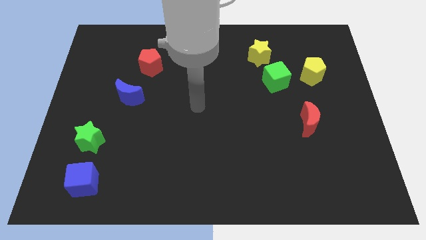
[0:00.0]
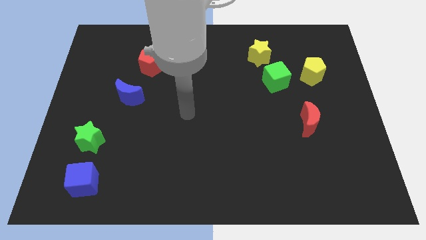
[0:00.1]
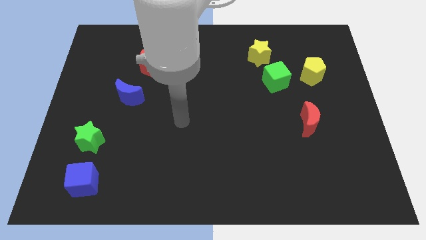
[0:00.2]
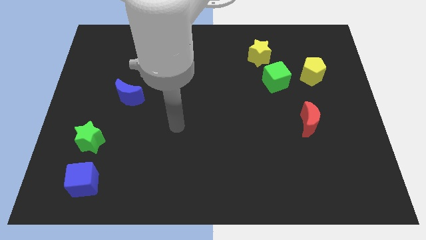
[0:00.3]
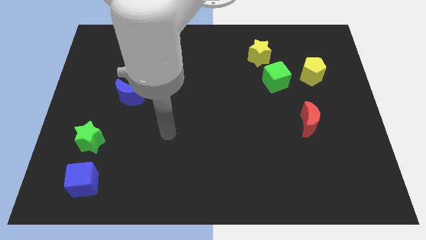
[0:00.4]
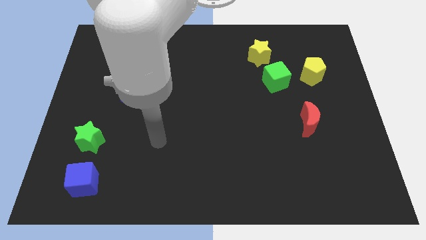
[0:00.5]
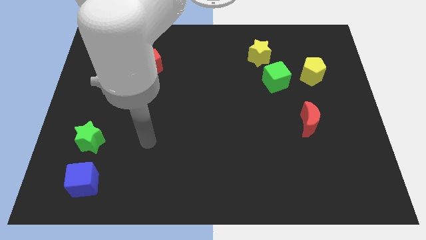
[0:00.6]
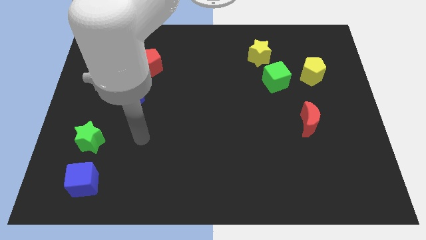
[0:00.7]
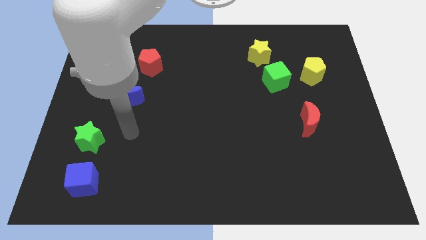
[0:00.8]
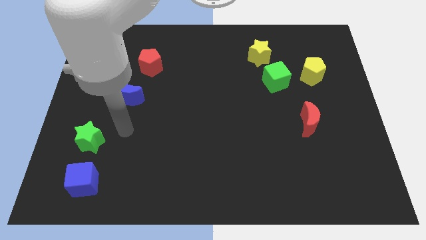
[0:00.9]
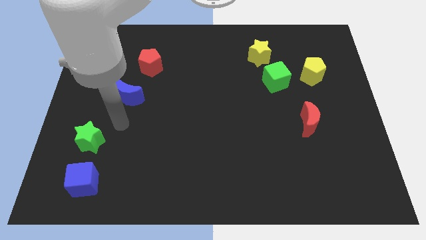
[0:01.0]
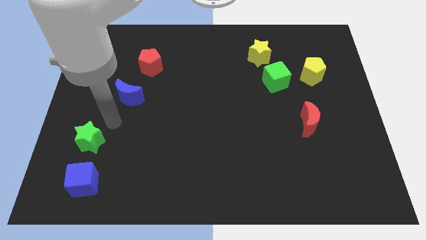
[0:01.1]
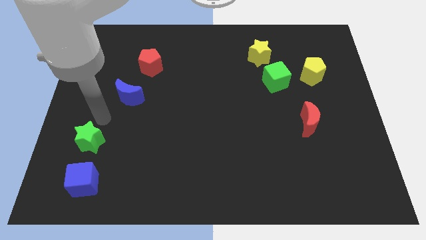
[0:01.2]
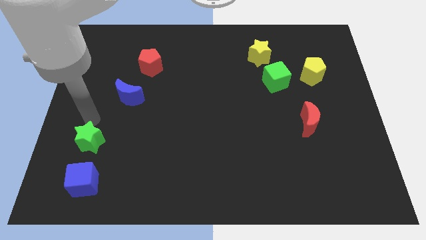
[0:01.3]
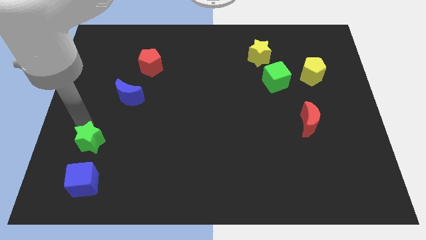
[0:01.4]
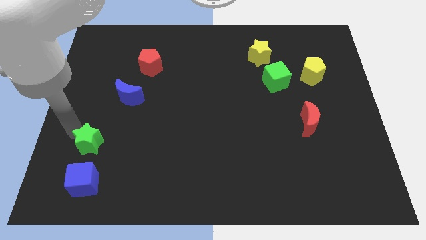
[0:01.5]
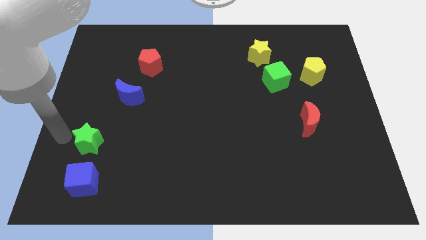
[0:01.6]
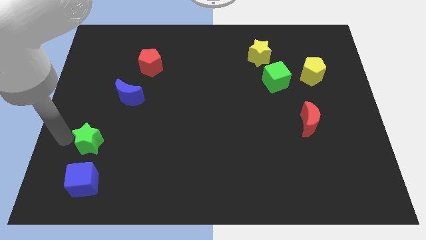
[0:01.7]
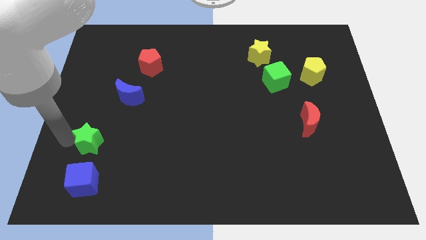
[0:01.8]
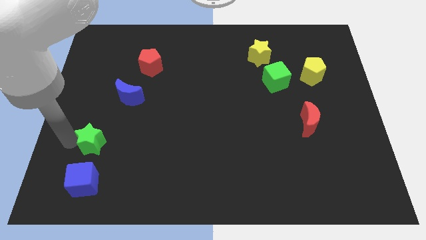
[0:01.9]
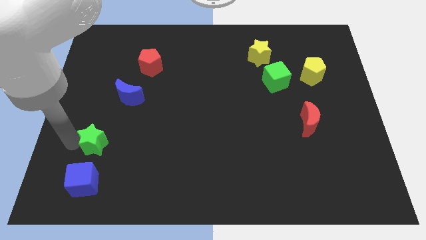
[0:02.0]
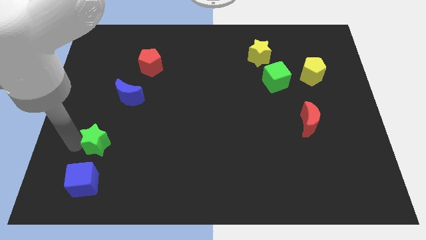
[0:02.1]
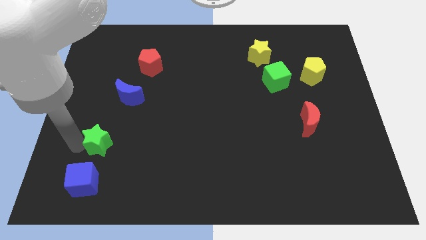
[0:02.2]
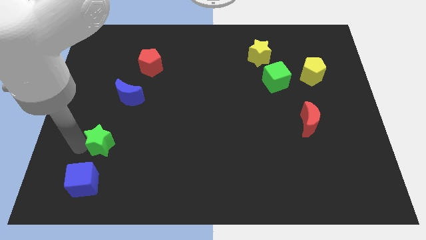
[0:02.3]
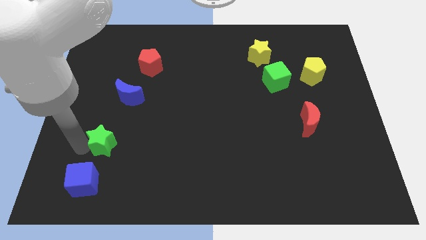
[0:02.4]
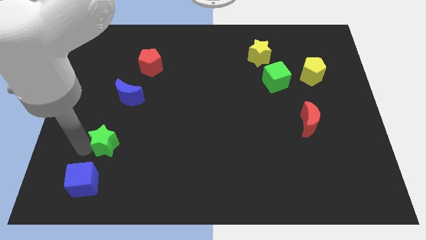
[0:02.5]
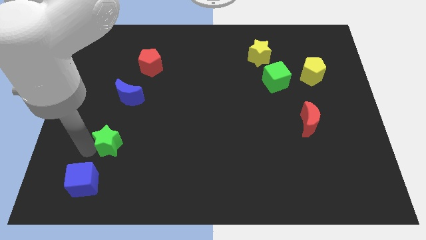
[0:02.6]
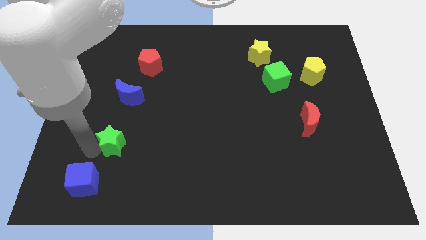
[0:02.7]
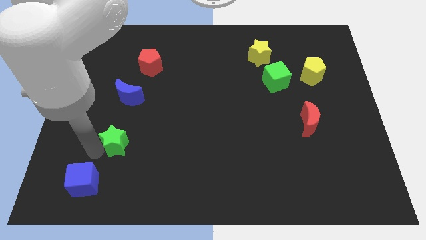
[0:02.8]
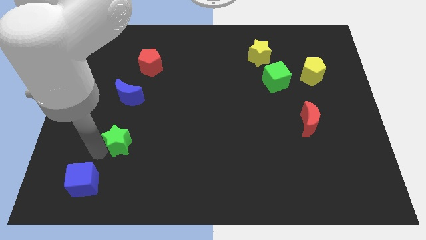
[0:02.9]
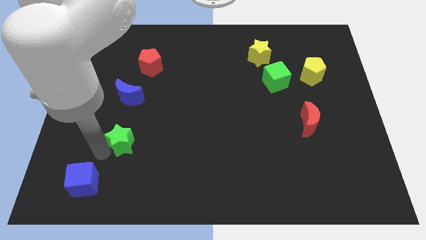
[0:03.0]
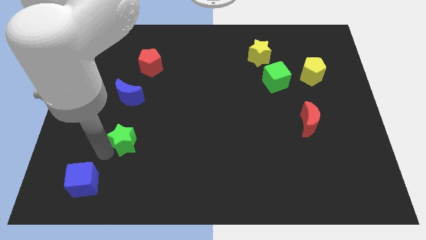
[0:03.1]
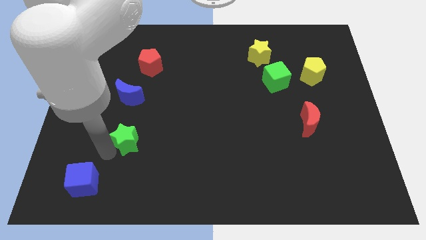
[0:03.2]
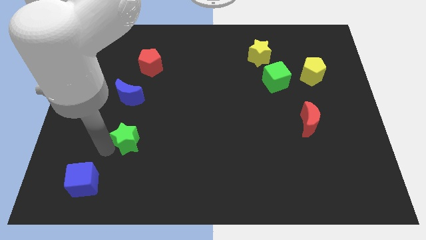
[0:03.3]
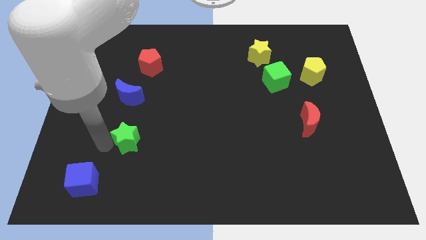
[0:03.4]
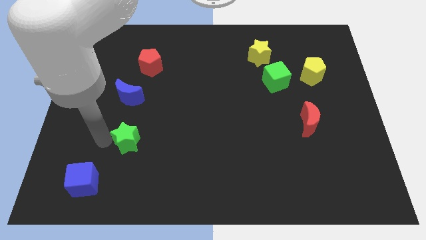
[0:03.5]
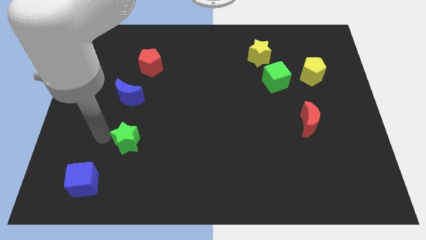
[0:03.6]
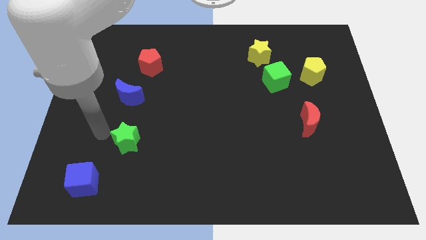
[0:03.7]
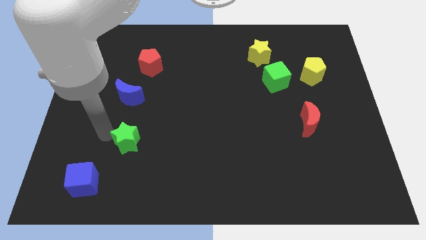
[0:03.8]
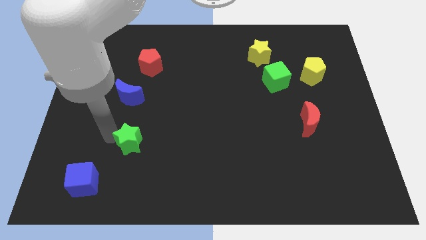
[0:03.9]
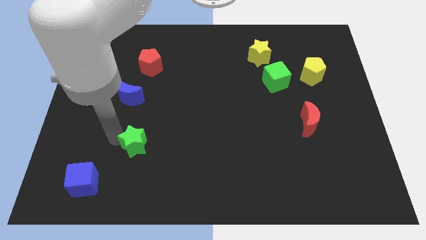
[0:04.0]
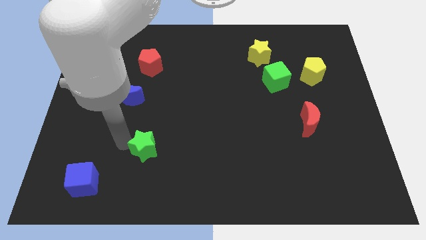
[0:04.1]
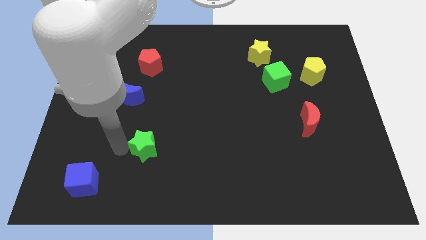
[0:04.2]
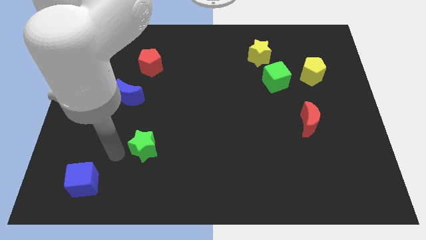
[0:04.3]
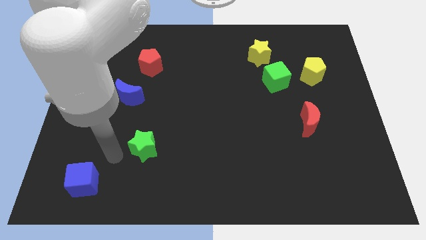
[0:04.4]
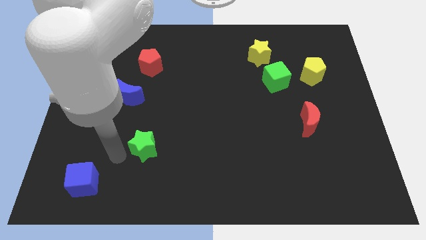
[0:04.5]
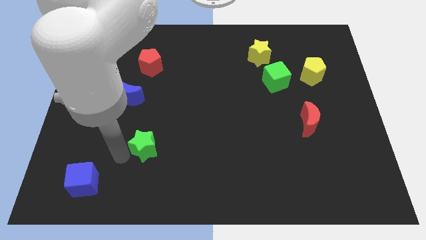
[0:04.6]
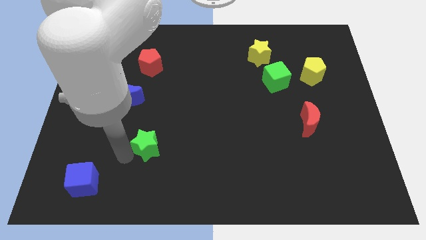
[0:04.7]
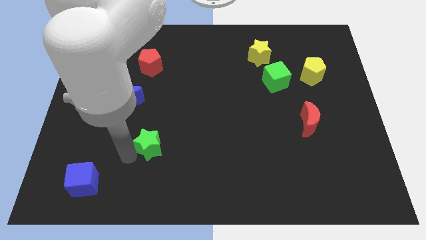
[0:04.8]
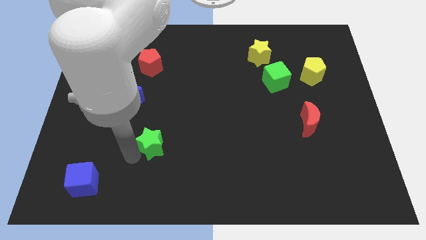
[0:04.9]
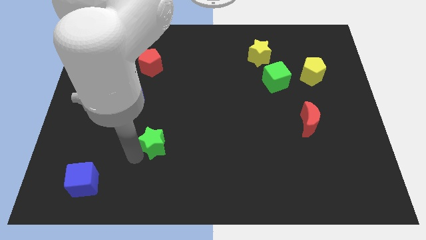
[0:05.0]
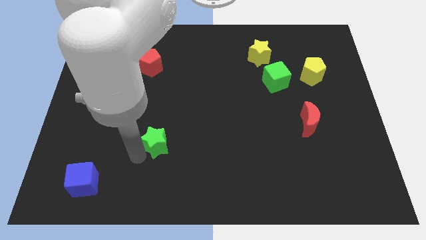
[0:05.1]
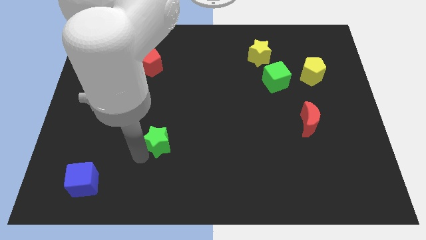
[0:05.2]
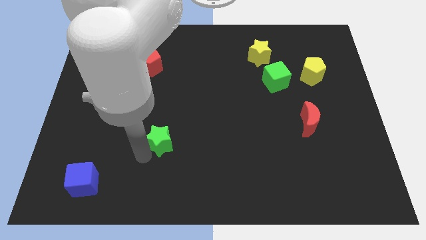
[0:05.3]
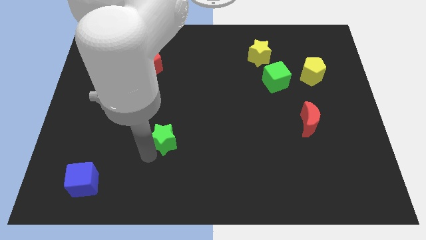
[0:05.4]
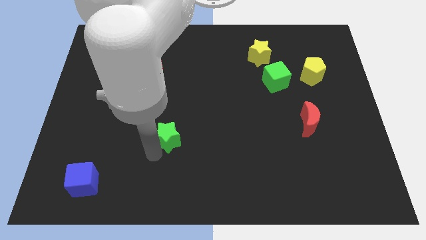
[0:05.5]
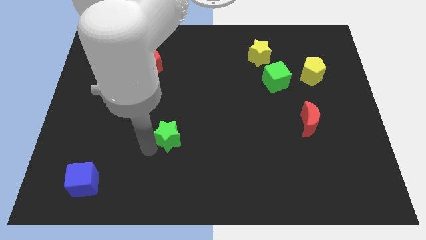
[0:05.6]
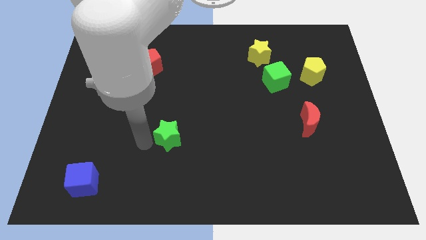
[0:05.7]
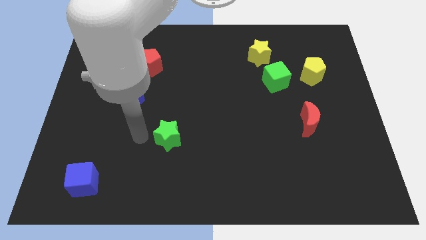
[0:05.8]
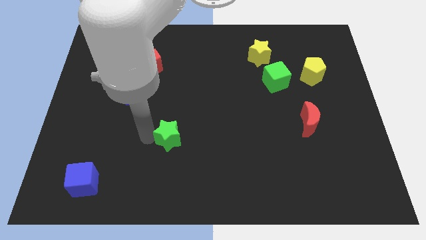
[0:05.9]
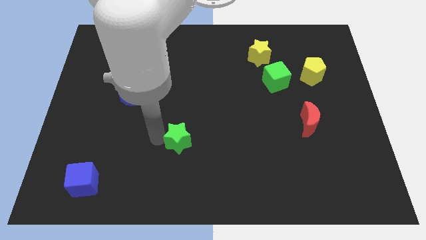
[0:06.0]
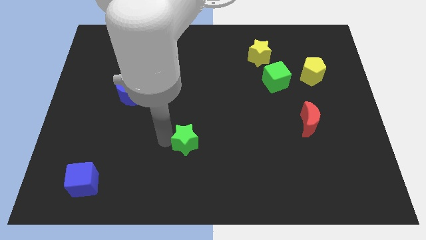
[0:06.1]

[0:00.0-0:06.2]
move the green star to the right

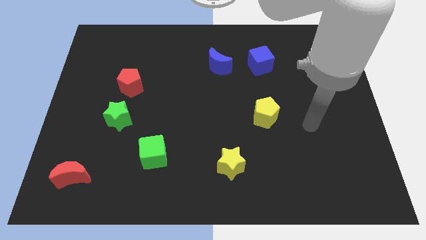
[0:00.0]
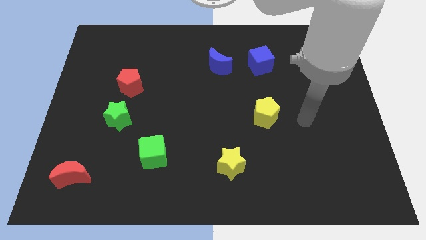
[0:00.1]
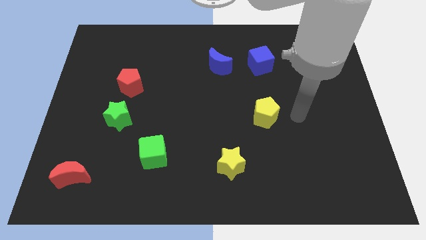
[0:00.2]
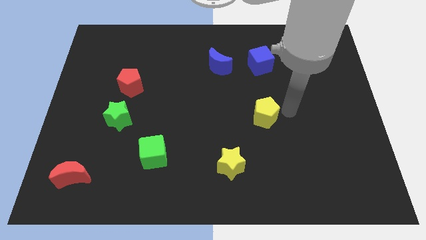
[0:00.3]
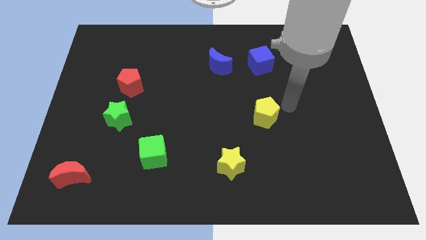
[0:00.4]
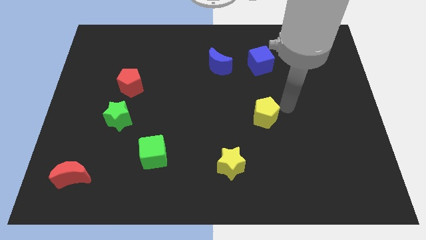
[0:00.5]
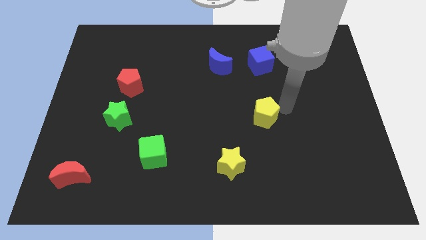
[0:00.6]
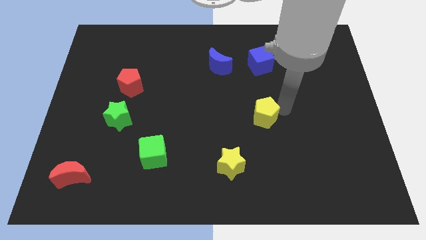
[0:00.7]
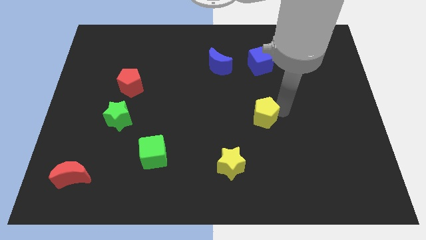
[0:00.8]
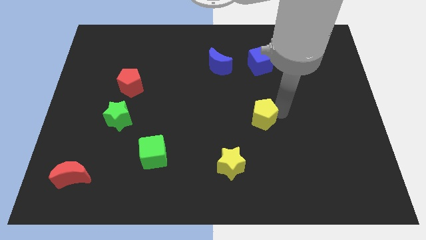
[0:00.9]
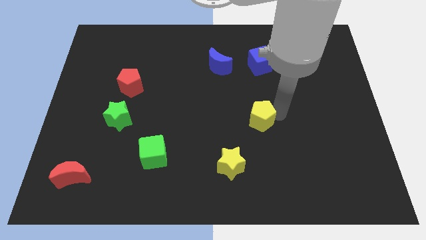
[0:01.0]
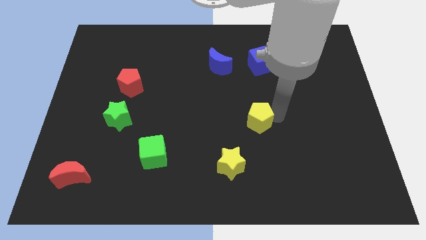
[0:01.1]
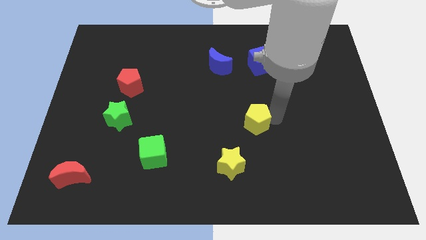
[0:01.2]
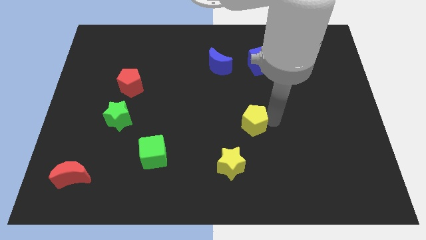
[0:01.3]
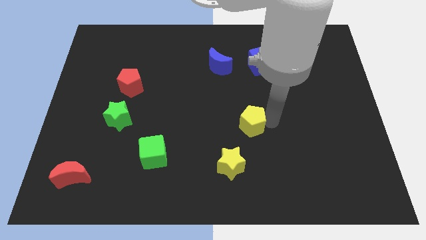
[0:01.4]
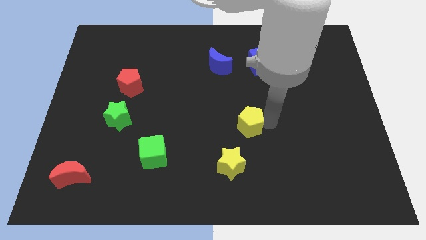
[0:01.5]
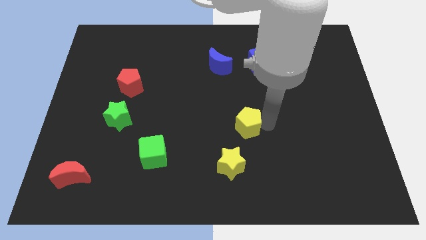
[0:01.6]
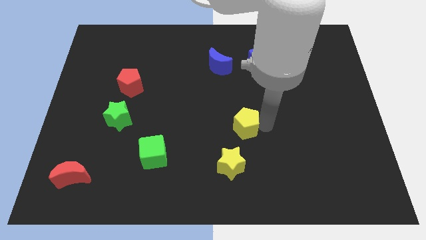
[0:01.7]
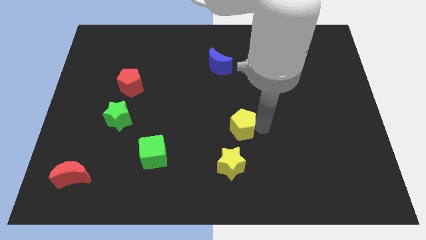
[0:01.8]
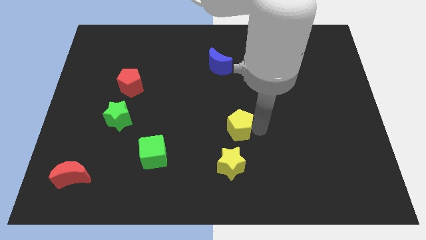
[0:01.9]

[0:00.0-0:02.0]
move the yellow pentagon a little down and left
